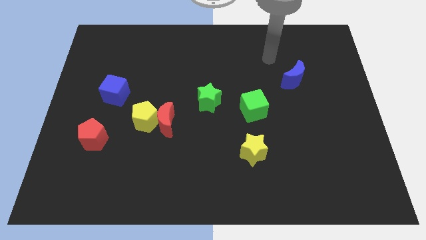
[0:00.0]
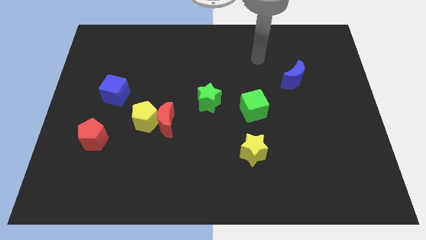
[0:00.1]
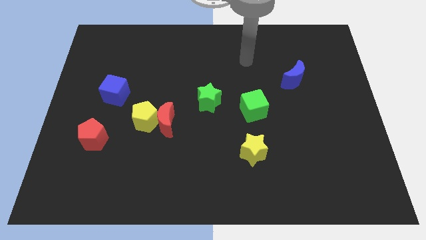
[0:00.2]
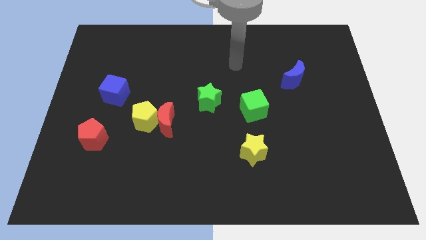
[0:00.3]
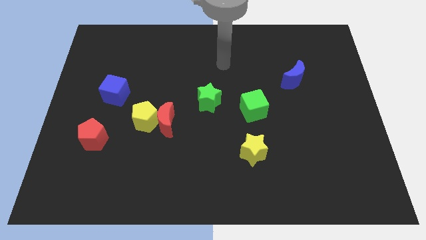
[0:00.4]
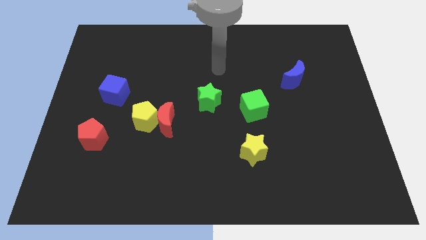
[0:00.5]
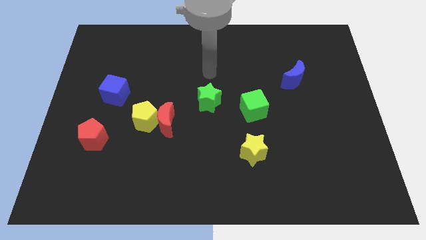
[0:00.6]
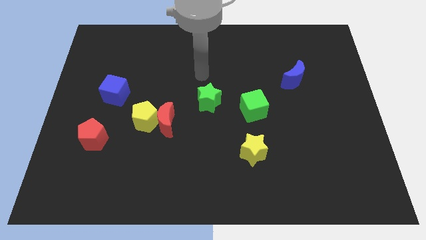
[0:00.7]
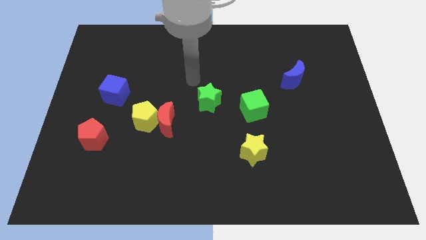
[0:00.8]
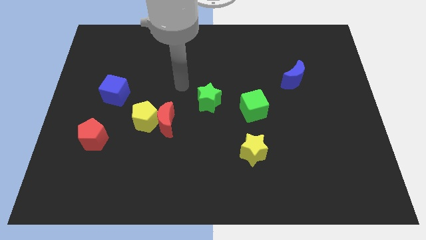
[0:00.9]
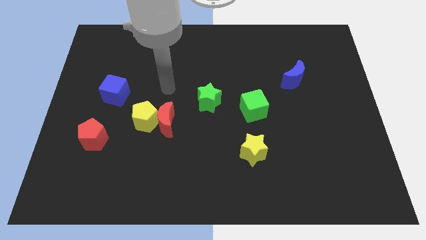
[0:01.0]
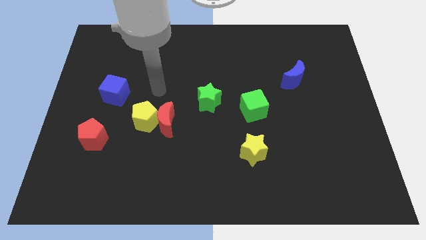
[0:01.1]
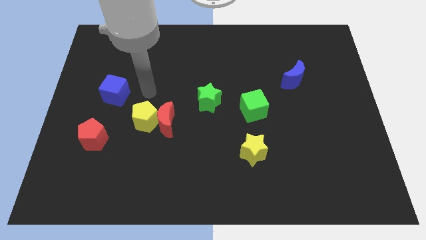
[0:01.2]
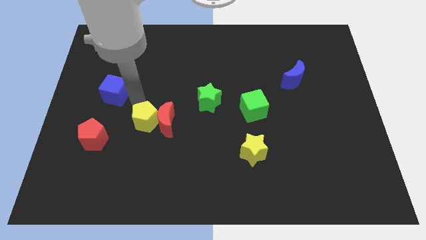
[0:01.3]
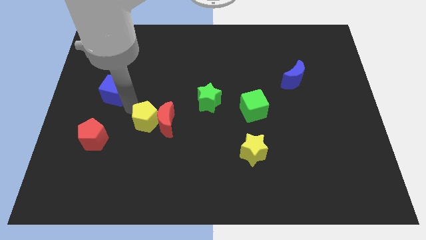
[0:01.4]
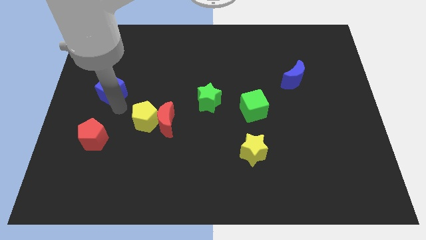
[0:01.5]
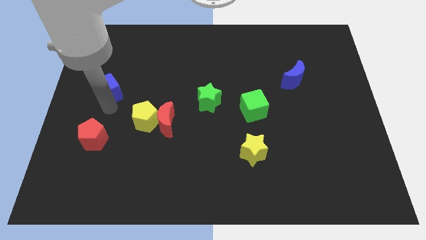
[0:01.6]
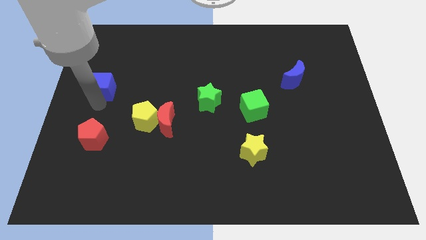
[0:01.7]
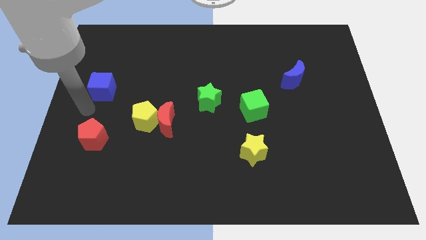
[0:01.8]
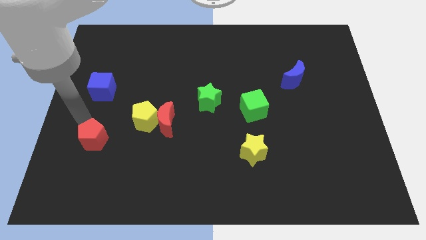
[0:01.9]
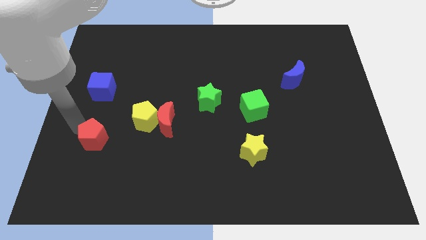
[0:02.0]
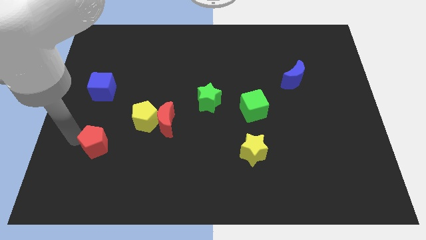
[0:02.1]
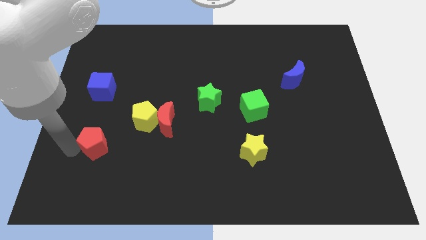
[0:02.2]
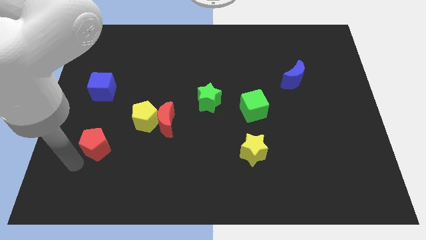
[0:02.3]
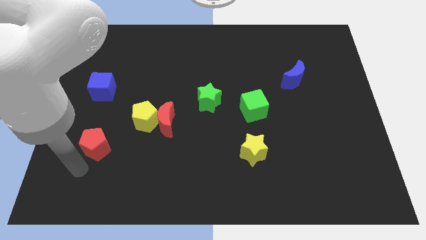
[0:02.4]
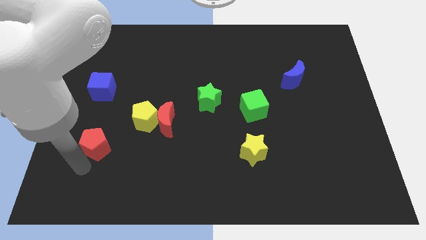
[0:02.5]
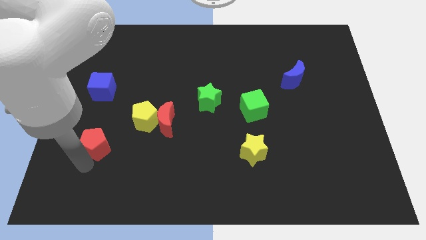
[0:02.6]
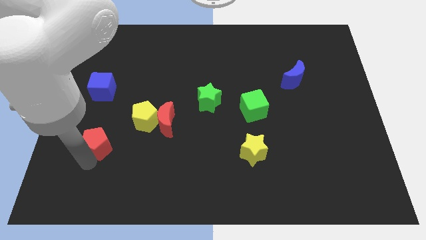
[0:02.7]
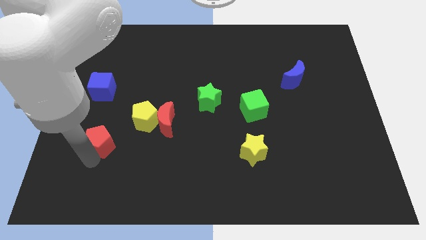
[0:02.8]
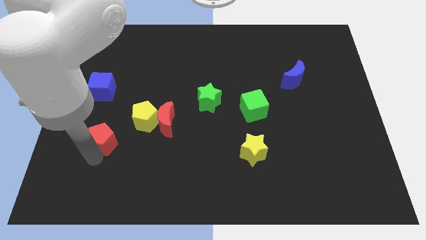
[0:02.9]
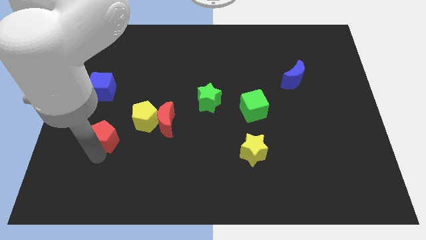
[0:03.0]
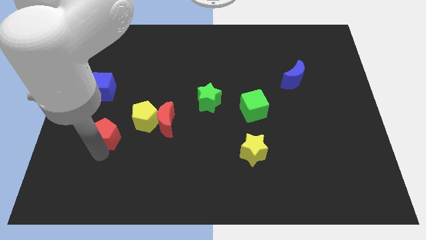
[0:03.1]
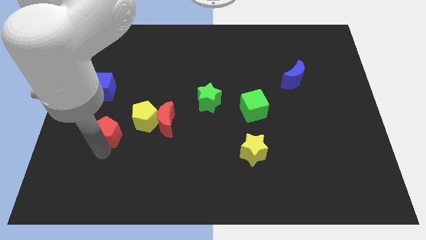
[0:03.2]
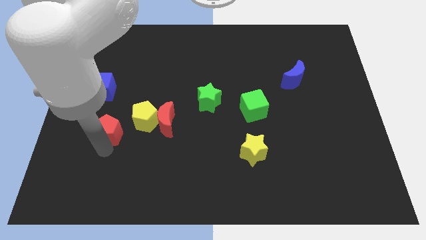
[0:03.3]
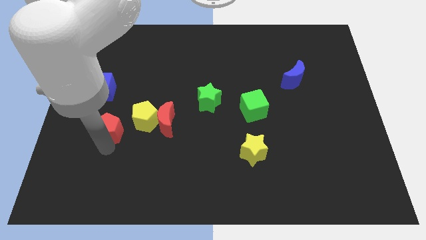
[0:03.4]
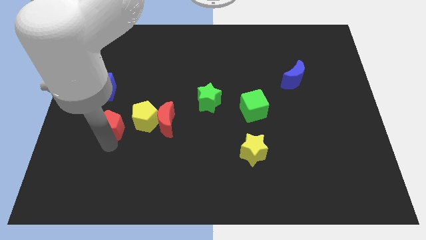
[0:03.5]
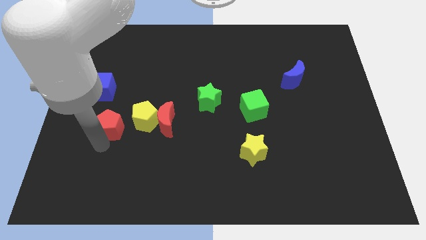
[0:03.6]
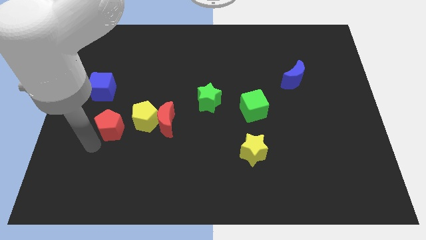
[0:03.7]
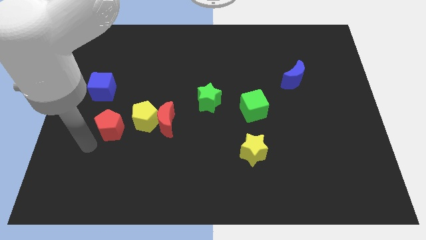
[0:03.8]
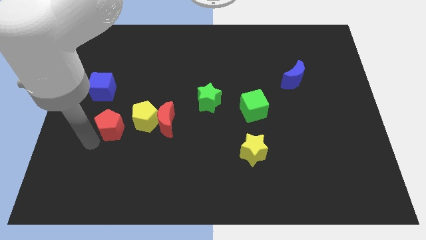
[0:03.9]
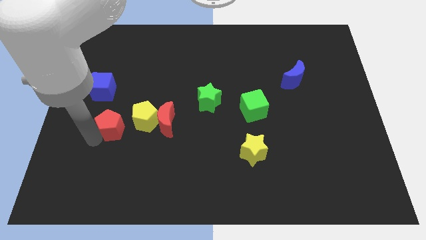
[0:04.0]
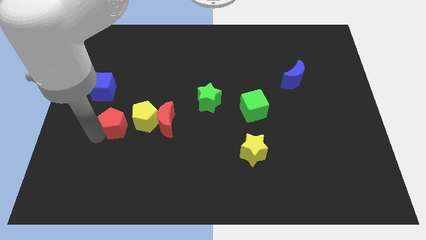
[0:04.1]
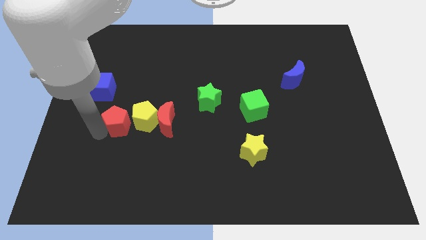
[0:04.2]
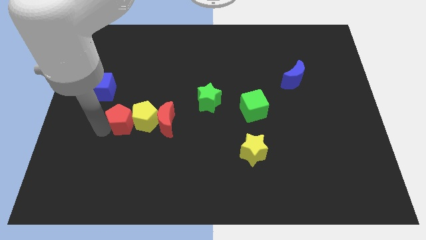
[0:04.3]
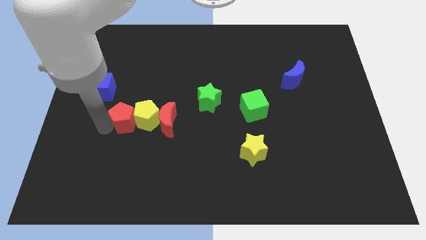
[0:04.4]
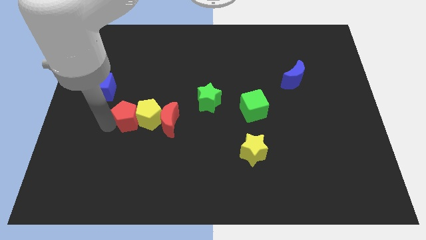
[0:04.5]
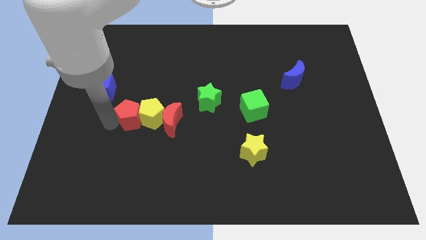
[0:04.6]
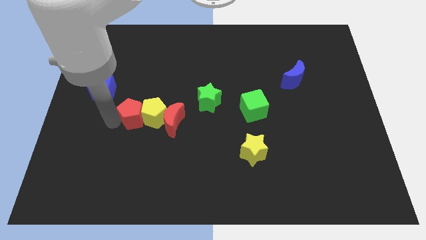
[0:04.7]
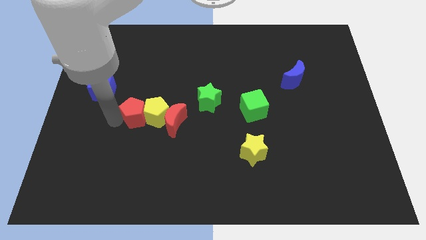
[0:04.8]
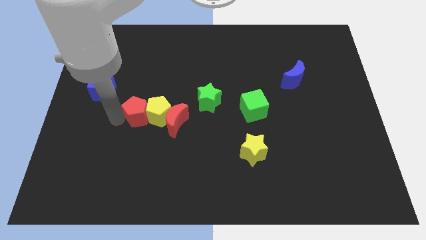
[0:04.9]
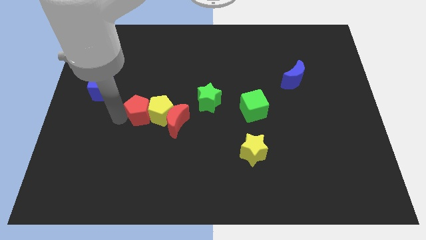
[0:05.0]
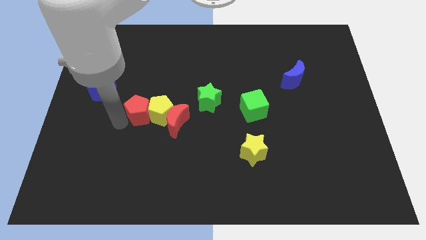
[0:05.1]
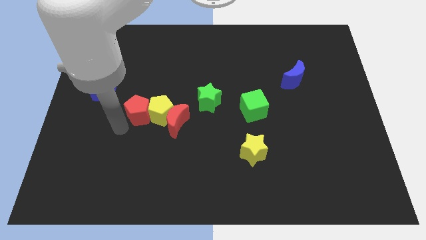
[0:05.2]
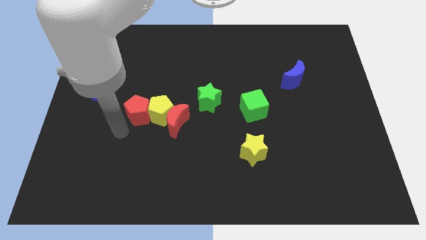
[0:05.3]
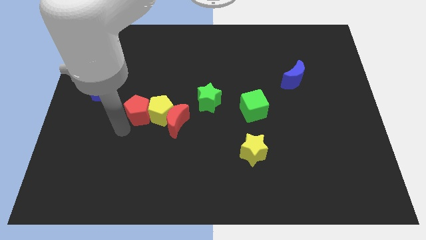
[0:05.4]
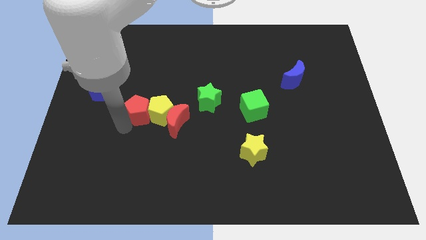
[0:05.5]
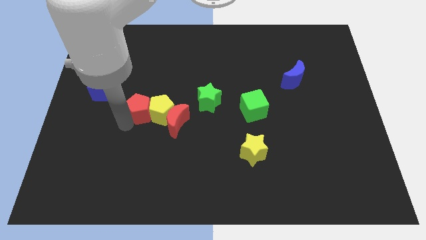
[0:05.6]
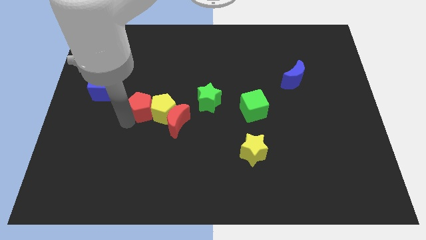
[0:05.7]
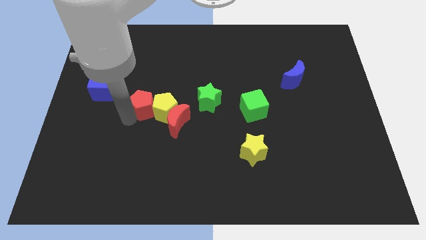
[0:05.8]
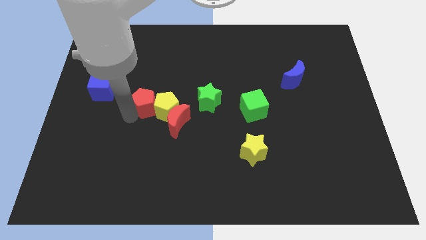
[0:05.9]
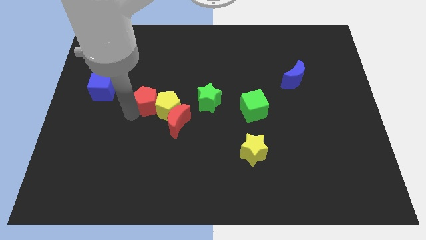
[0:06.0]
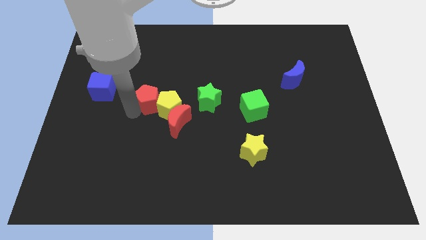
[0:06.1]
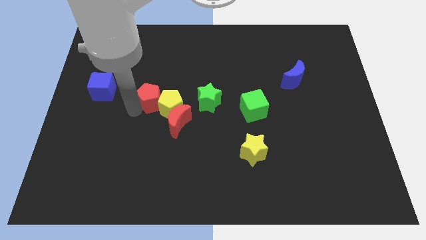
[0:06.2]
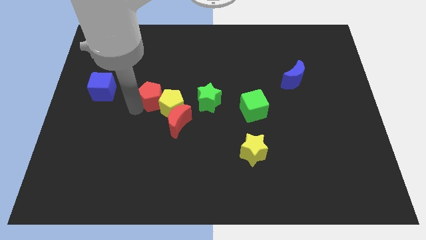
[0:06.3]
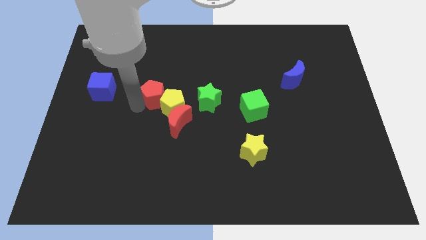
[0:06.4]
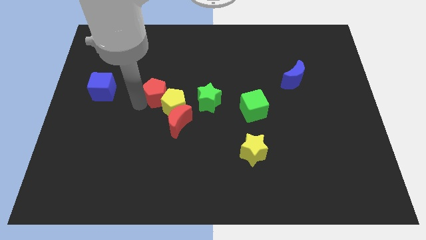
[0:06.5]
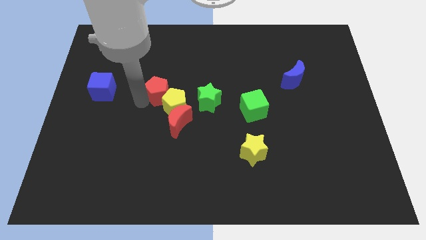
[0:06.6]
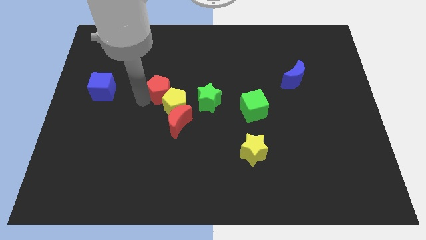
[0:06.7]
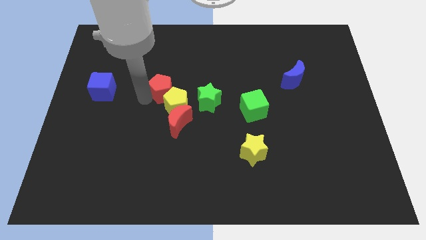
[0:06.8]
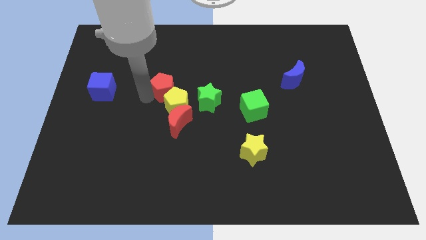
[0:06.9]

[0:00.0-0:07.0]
push the red pentagon up and right

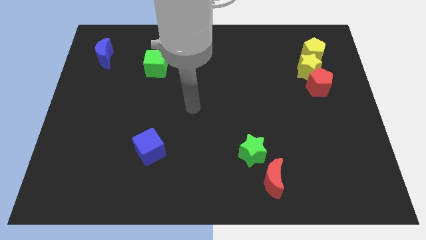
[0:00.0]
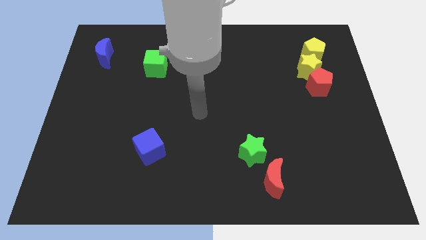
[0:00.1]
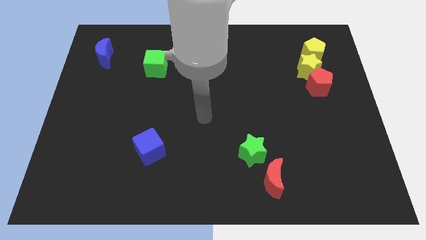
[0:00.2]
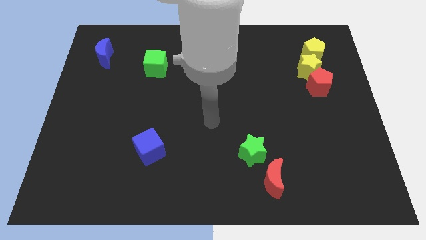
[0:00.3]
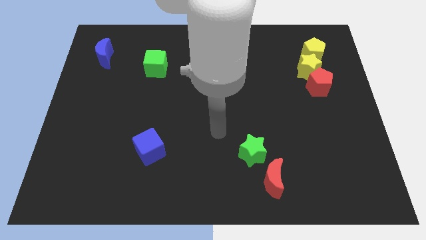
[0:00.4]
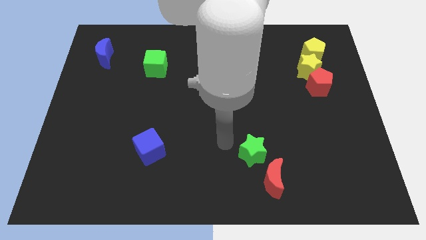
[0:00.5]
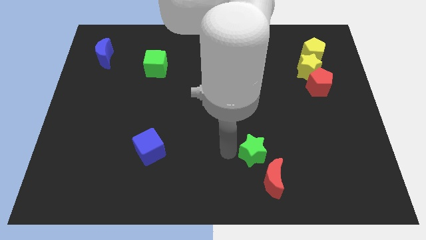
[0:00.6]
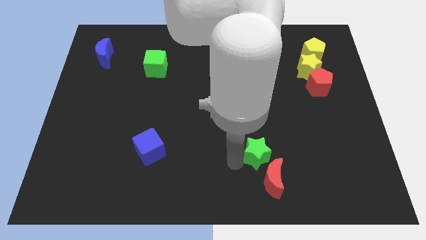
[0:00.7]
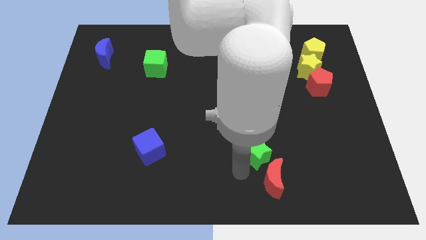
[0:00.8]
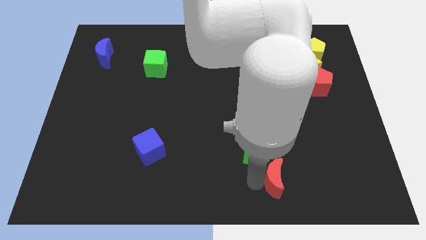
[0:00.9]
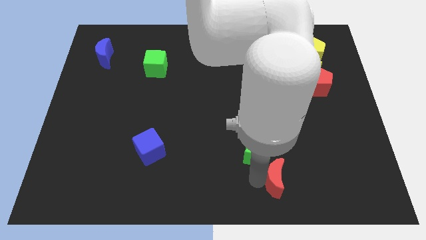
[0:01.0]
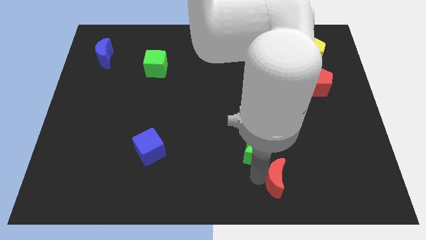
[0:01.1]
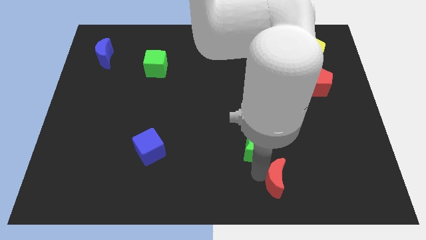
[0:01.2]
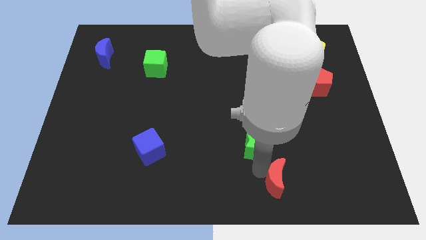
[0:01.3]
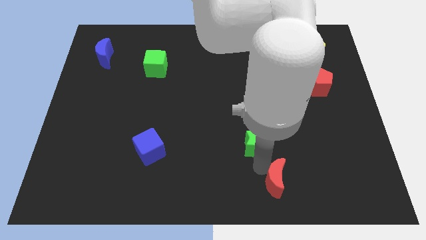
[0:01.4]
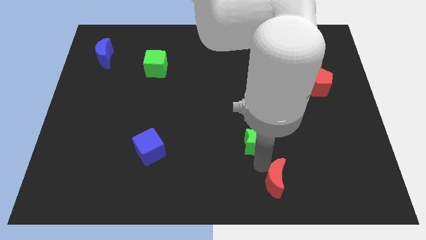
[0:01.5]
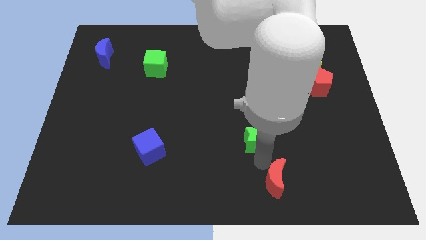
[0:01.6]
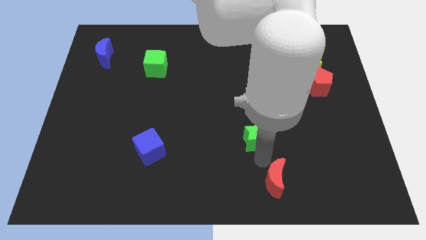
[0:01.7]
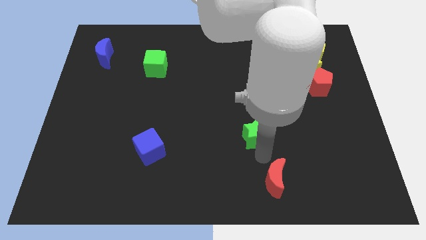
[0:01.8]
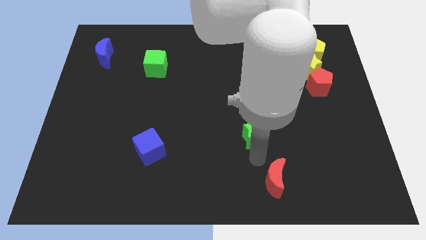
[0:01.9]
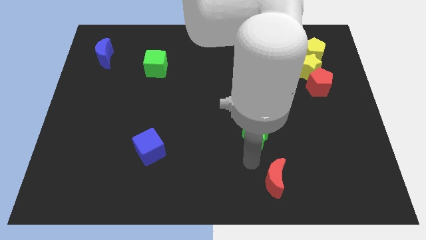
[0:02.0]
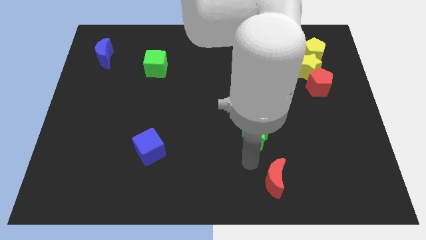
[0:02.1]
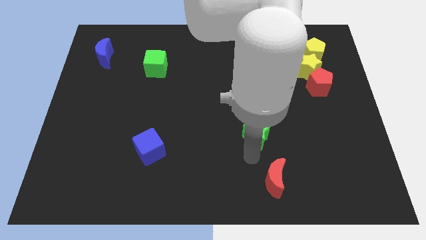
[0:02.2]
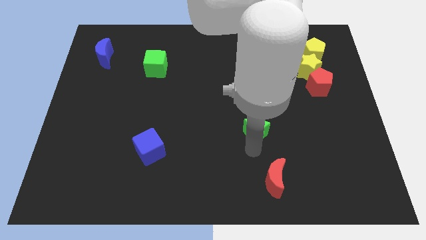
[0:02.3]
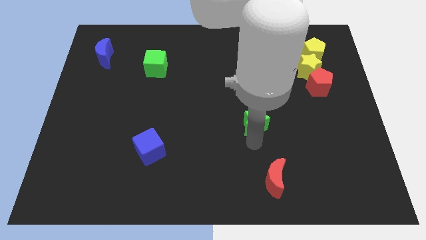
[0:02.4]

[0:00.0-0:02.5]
slide the green star upwards slightly
